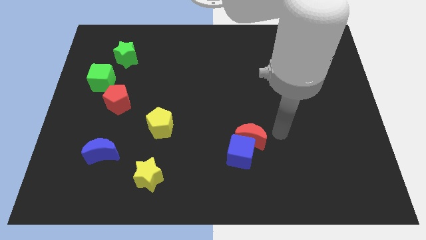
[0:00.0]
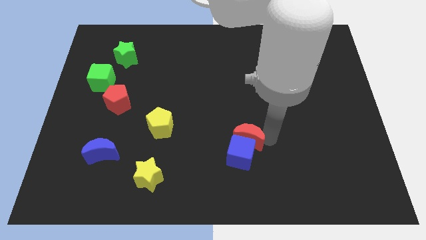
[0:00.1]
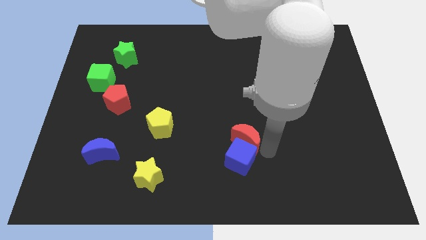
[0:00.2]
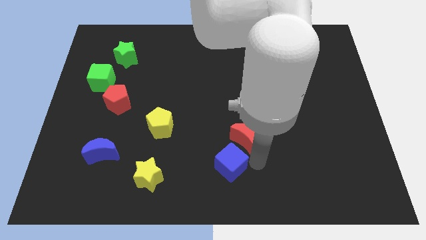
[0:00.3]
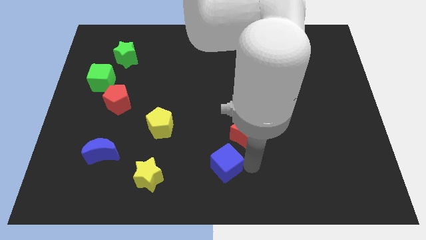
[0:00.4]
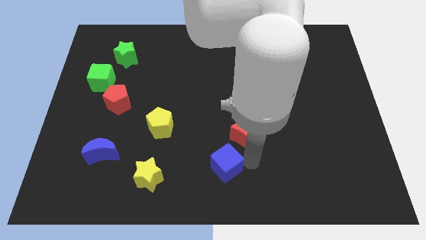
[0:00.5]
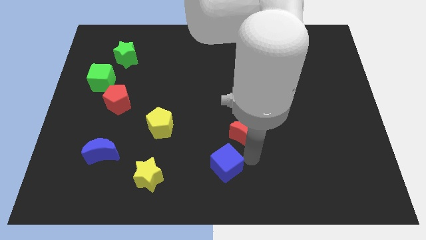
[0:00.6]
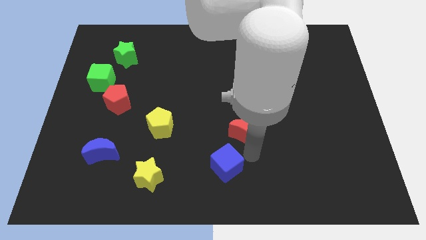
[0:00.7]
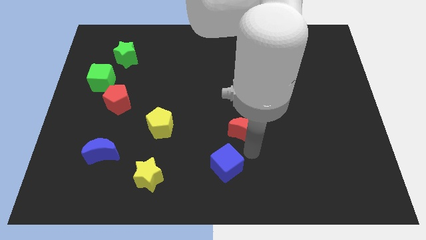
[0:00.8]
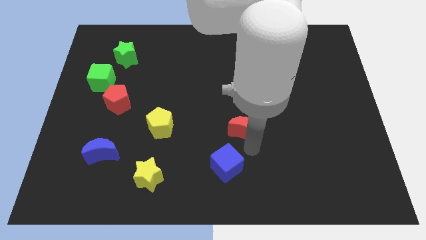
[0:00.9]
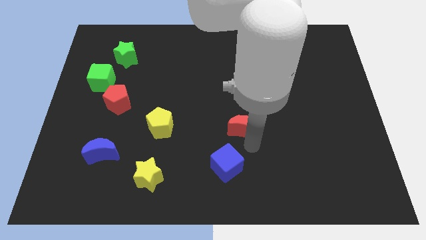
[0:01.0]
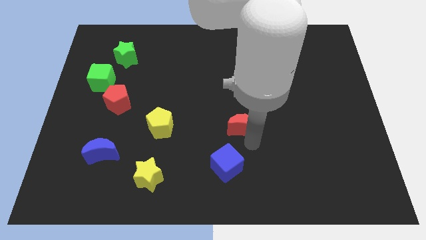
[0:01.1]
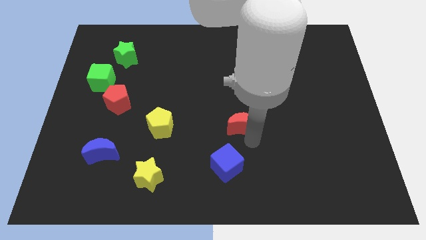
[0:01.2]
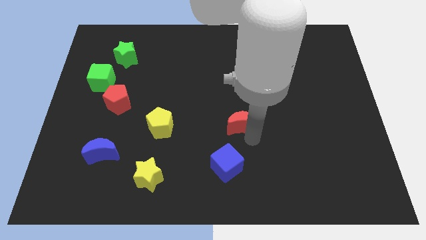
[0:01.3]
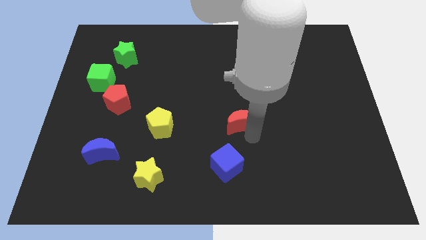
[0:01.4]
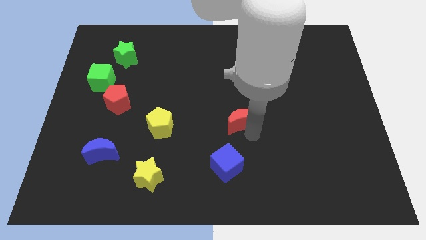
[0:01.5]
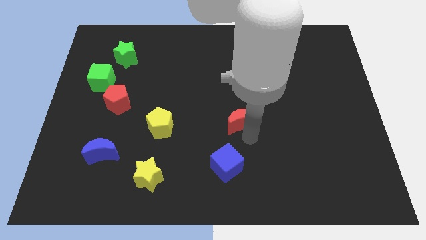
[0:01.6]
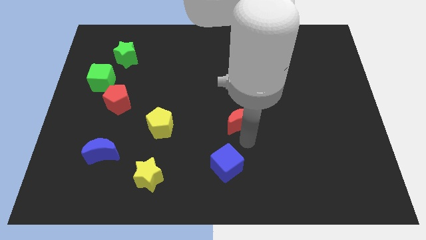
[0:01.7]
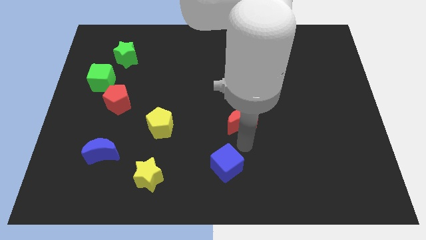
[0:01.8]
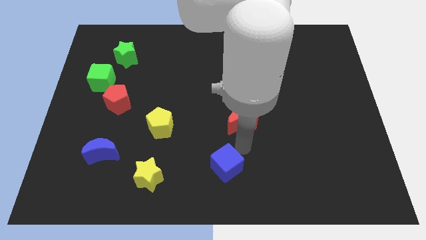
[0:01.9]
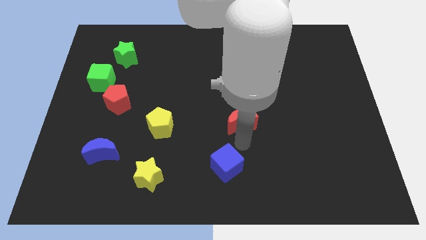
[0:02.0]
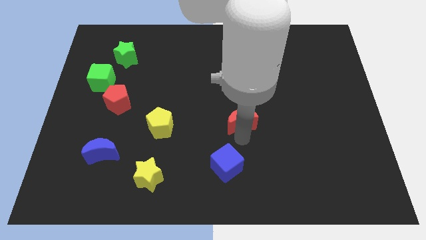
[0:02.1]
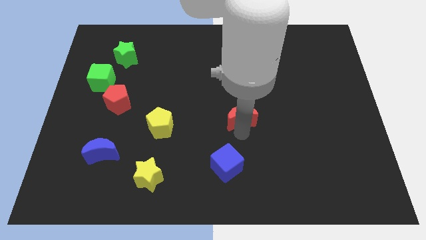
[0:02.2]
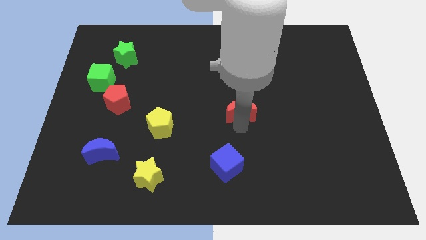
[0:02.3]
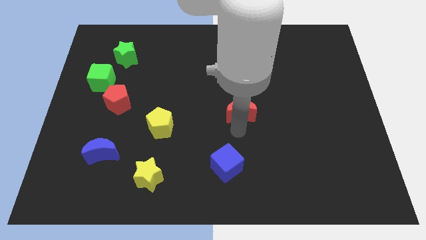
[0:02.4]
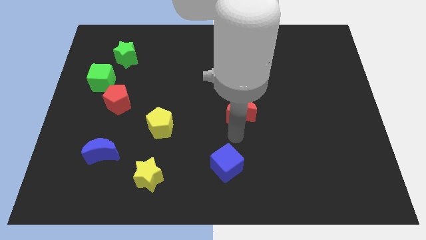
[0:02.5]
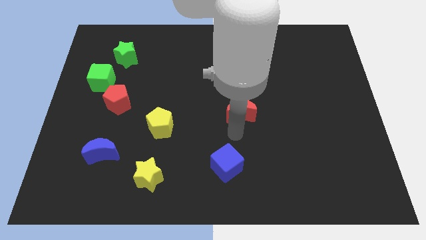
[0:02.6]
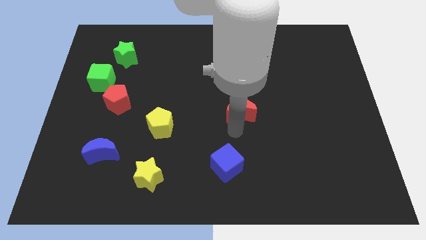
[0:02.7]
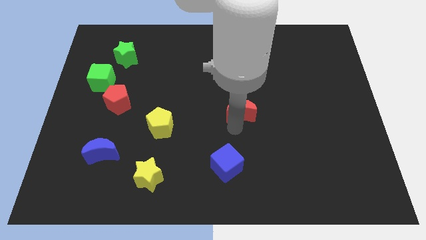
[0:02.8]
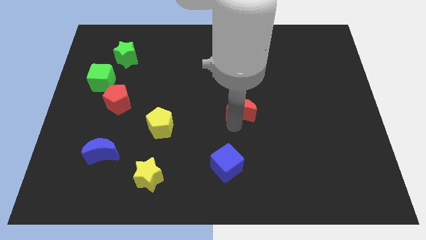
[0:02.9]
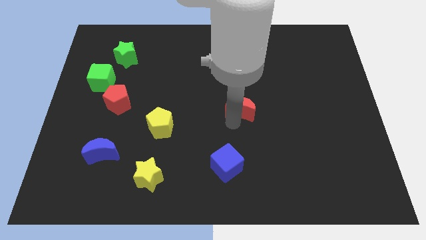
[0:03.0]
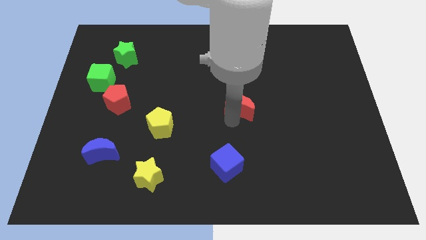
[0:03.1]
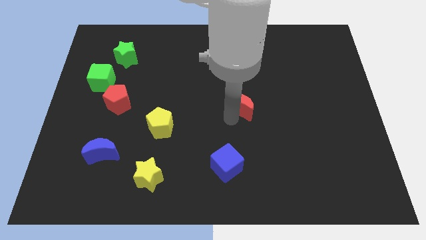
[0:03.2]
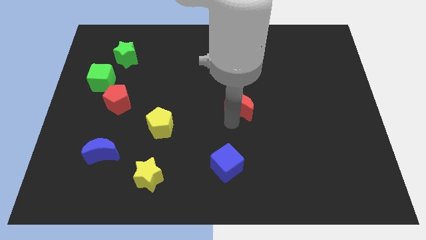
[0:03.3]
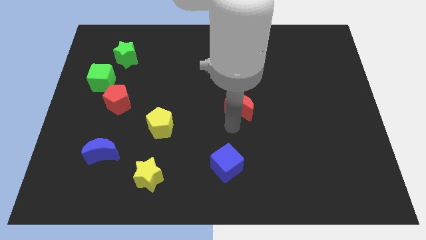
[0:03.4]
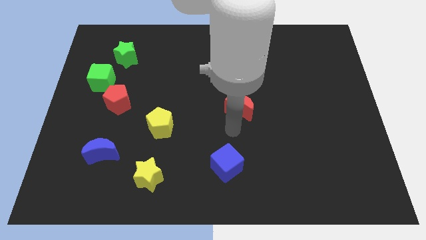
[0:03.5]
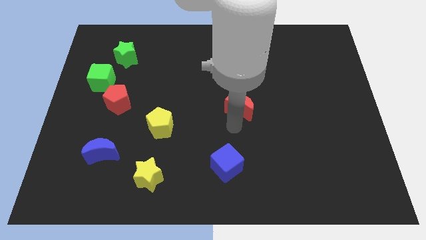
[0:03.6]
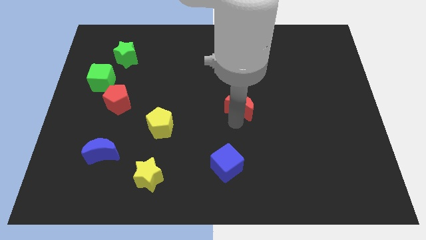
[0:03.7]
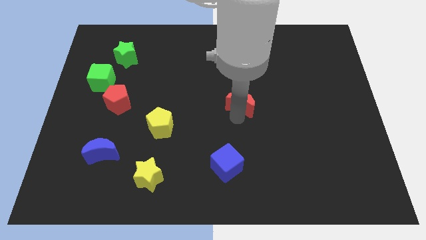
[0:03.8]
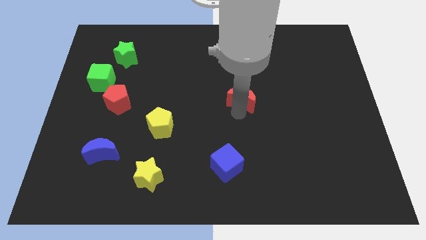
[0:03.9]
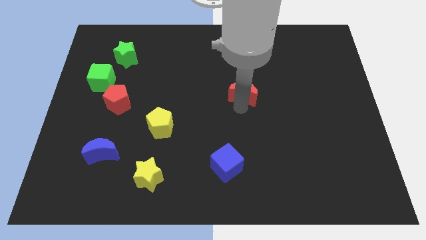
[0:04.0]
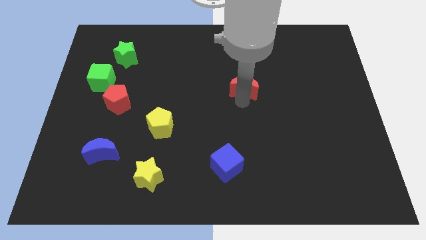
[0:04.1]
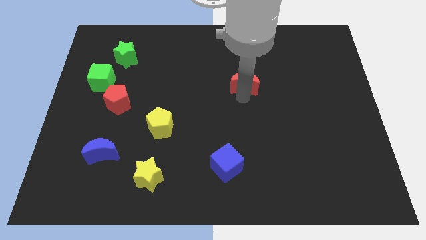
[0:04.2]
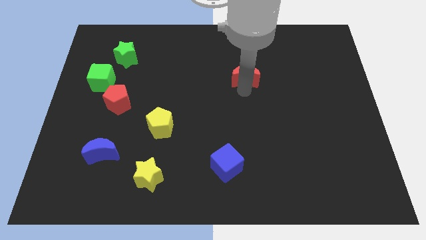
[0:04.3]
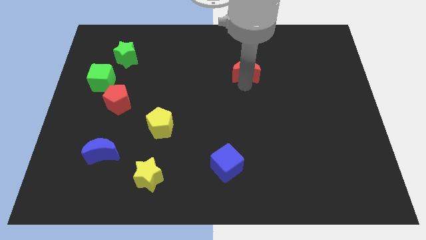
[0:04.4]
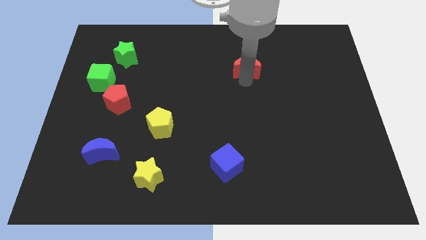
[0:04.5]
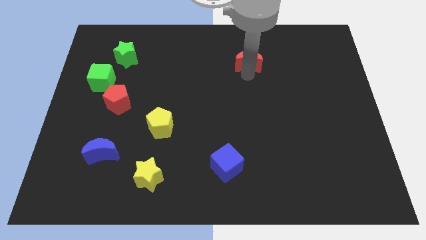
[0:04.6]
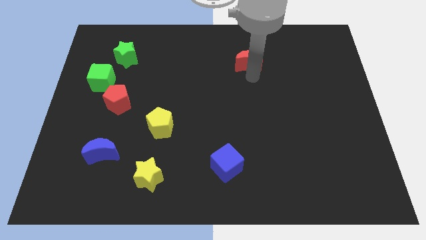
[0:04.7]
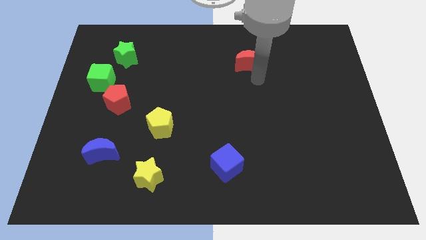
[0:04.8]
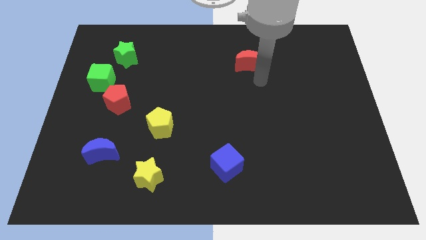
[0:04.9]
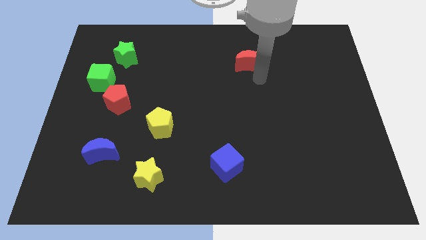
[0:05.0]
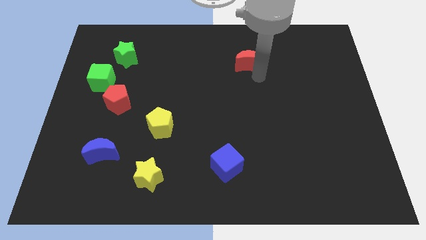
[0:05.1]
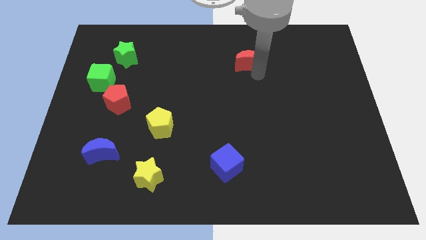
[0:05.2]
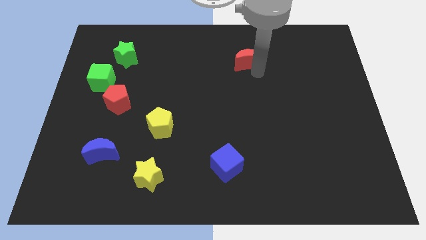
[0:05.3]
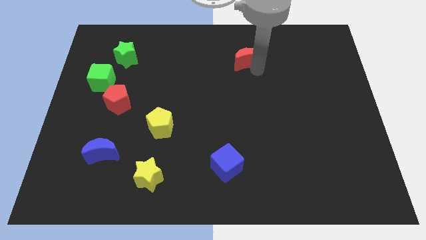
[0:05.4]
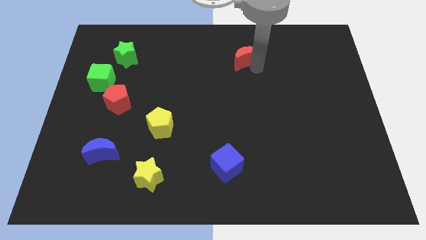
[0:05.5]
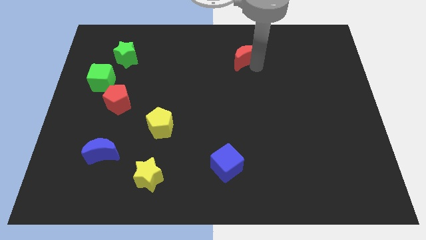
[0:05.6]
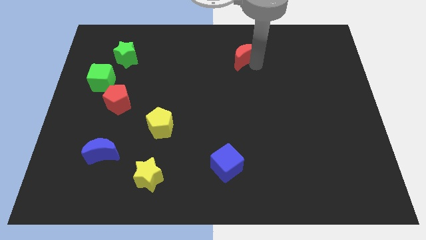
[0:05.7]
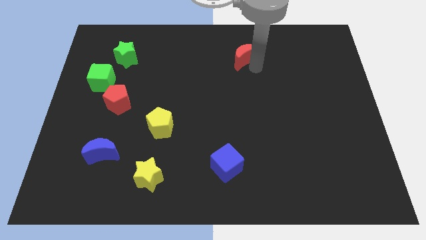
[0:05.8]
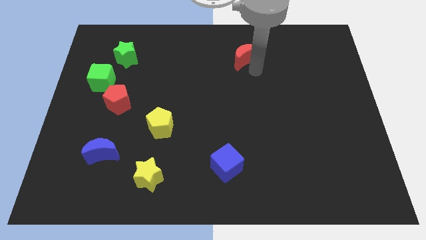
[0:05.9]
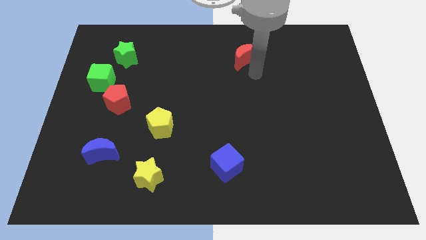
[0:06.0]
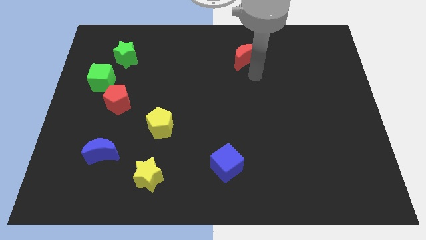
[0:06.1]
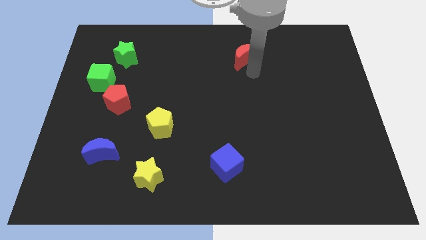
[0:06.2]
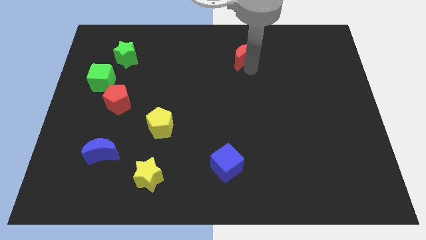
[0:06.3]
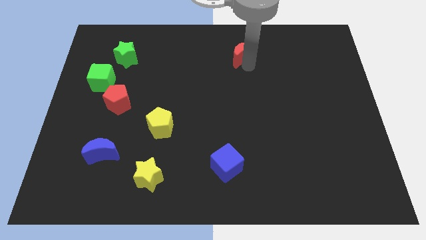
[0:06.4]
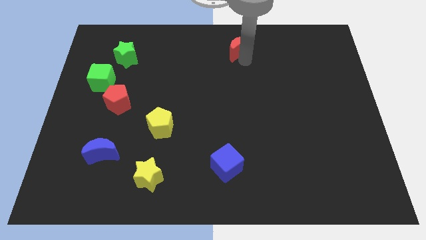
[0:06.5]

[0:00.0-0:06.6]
put the red moon to the top side
